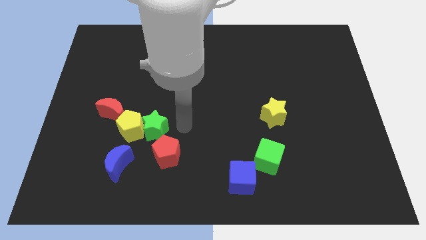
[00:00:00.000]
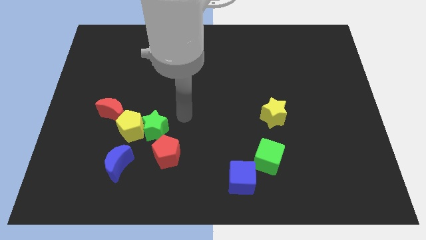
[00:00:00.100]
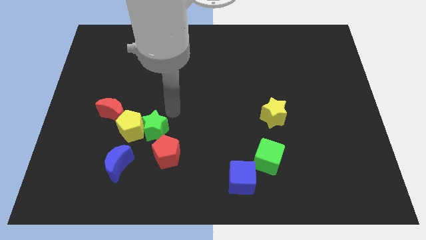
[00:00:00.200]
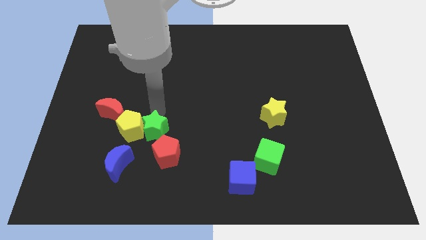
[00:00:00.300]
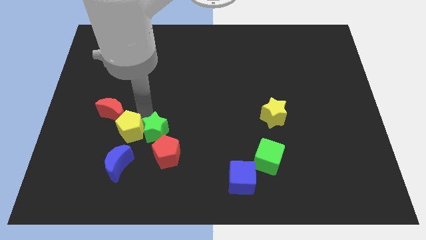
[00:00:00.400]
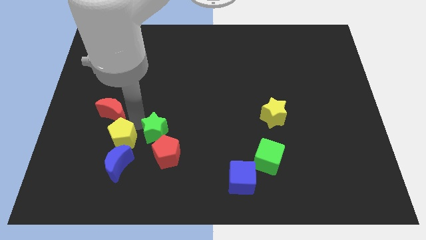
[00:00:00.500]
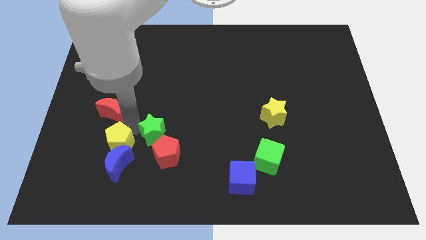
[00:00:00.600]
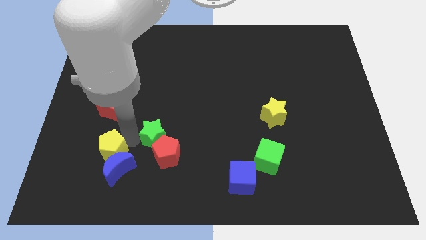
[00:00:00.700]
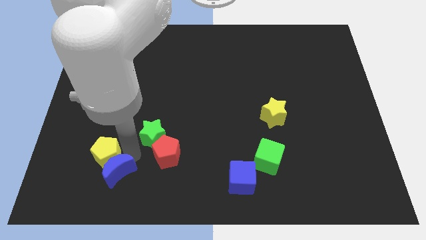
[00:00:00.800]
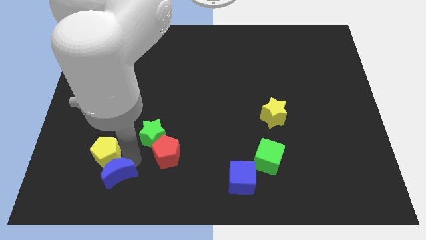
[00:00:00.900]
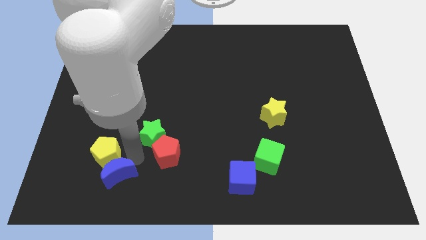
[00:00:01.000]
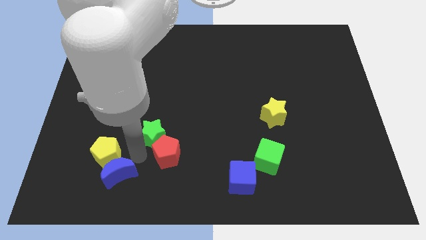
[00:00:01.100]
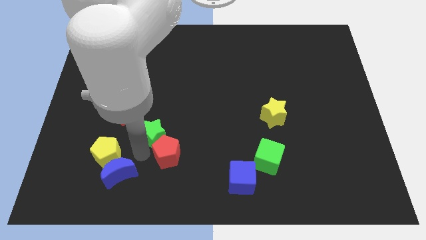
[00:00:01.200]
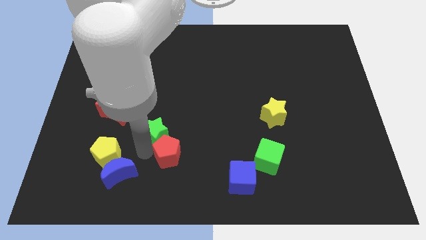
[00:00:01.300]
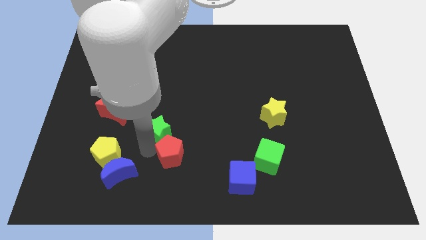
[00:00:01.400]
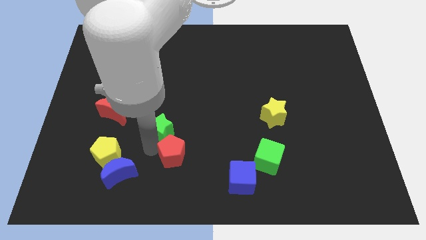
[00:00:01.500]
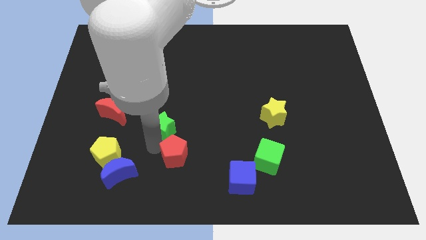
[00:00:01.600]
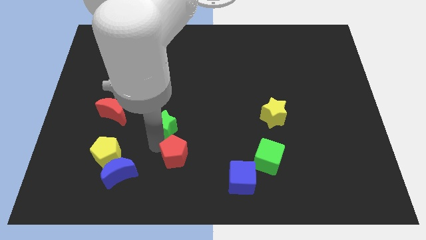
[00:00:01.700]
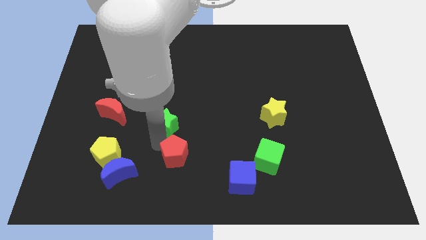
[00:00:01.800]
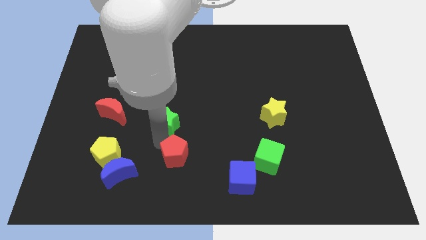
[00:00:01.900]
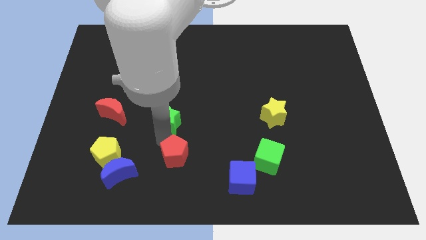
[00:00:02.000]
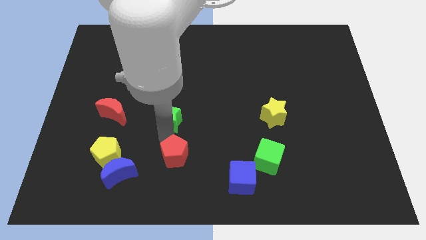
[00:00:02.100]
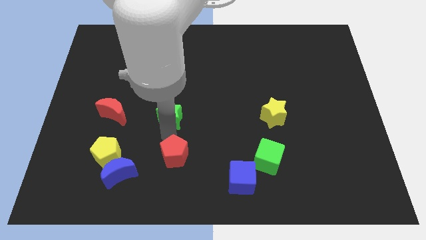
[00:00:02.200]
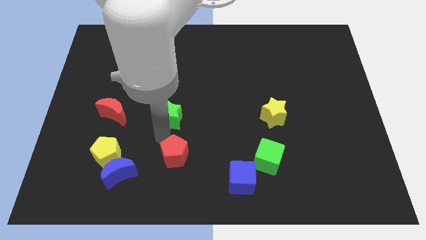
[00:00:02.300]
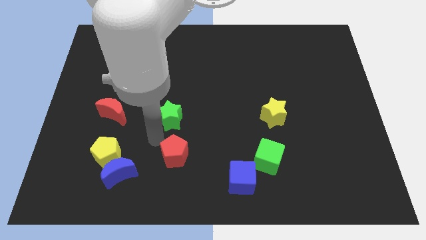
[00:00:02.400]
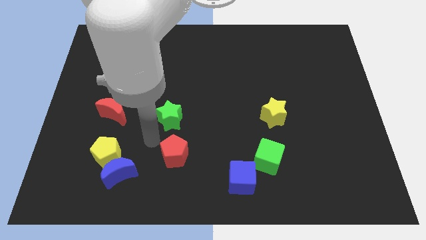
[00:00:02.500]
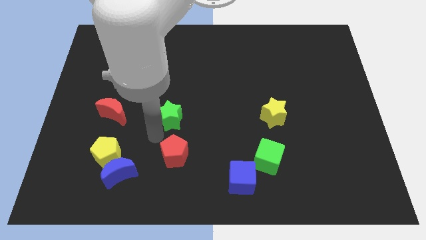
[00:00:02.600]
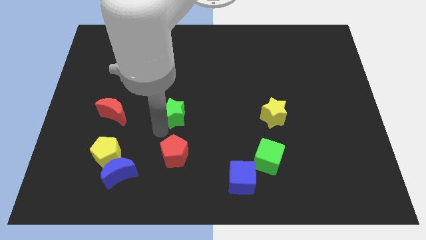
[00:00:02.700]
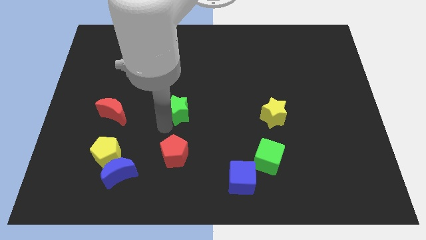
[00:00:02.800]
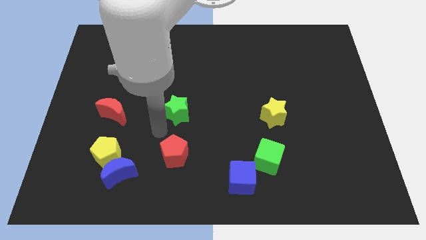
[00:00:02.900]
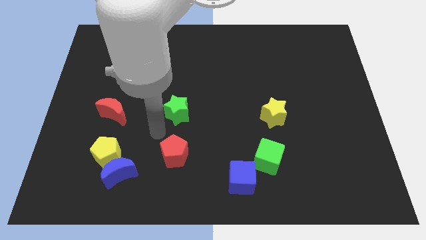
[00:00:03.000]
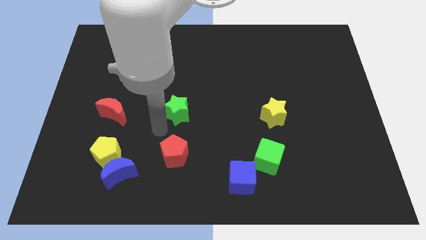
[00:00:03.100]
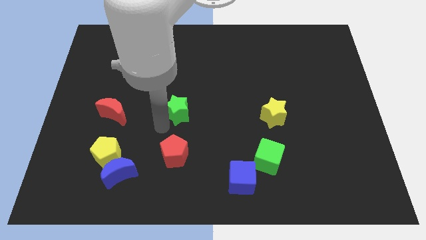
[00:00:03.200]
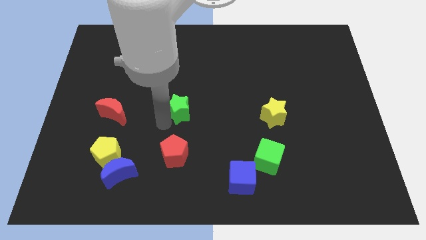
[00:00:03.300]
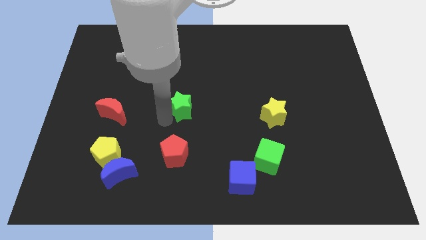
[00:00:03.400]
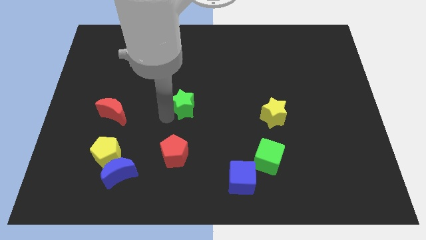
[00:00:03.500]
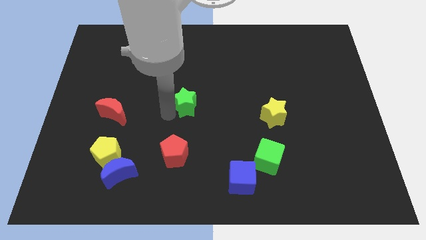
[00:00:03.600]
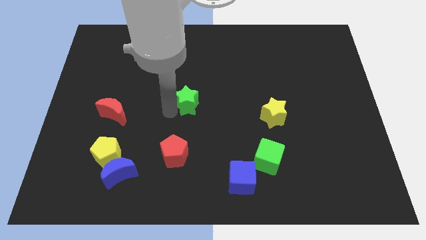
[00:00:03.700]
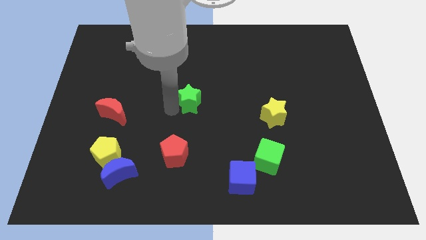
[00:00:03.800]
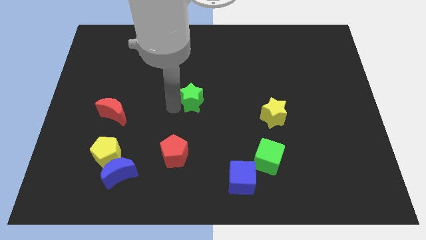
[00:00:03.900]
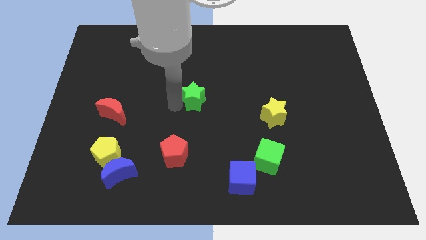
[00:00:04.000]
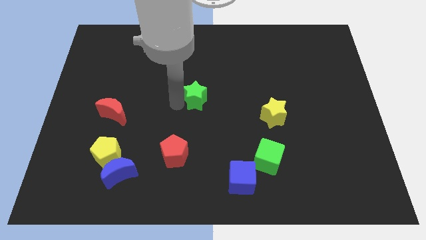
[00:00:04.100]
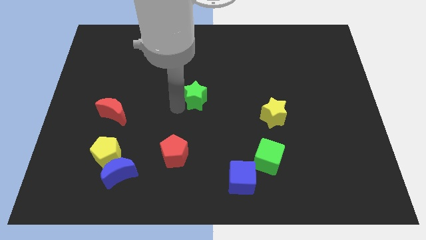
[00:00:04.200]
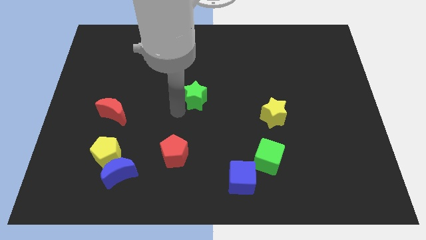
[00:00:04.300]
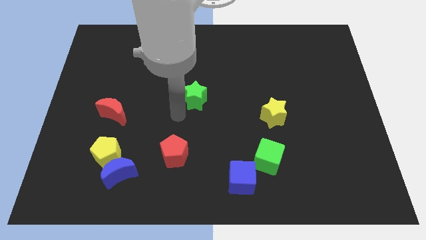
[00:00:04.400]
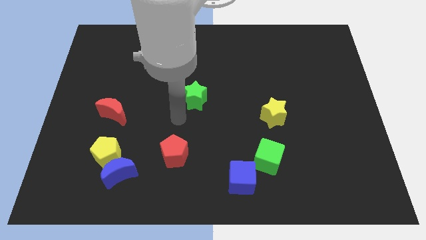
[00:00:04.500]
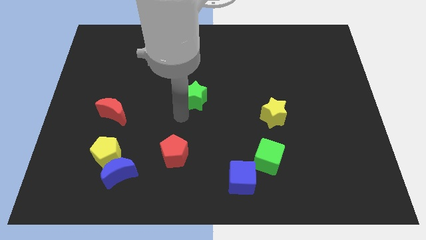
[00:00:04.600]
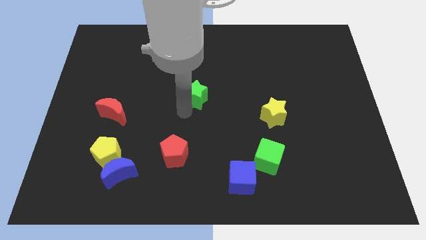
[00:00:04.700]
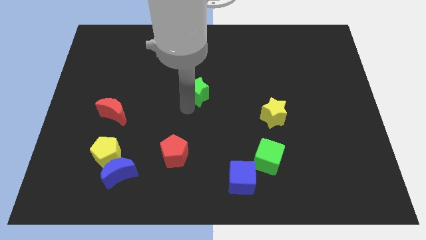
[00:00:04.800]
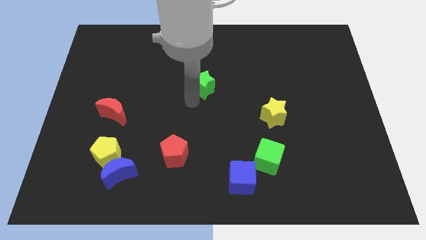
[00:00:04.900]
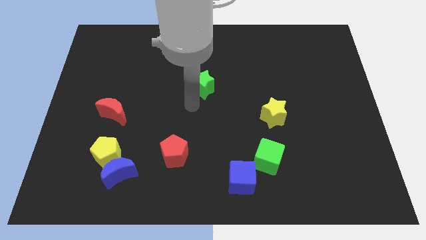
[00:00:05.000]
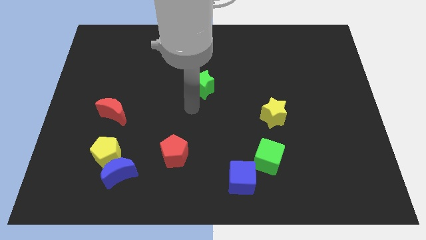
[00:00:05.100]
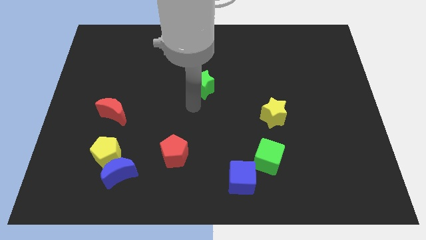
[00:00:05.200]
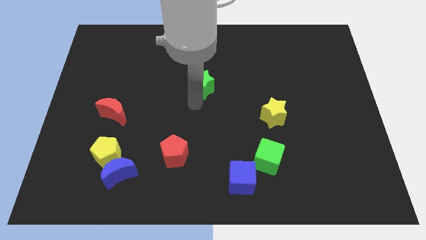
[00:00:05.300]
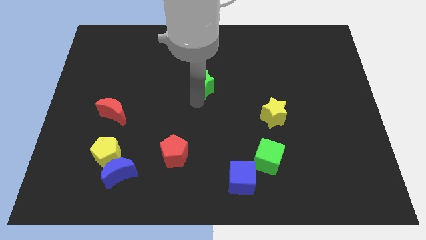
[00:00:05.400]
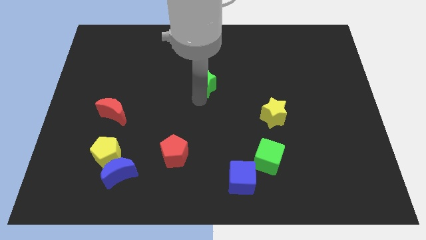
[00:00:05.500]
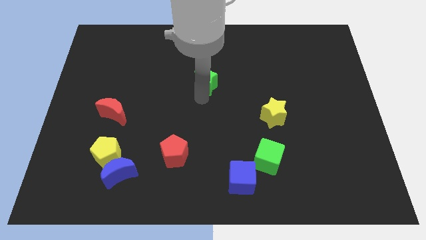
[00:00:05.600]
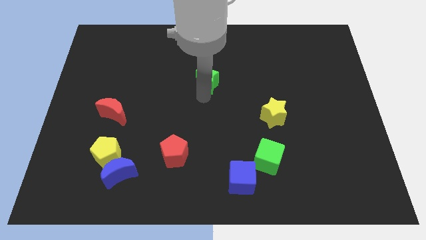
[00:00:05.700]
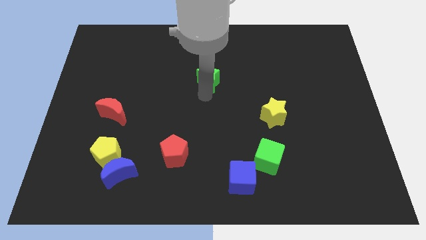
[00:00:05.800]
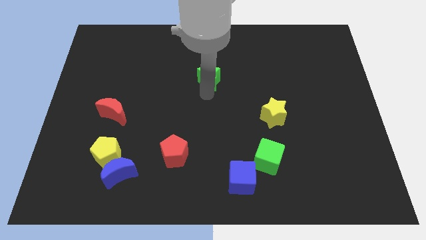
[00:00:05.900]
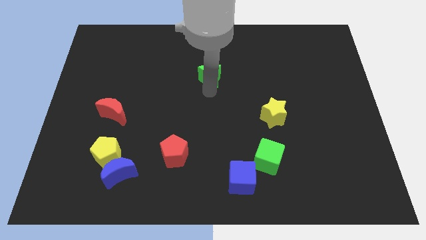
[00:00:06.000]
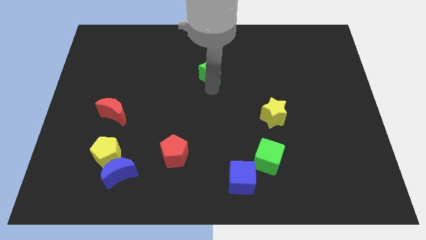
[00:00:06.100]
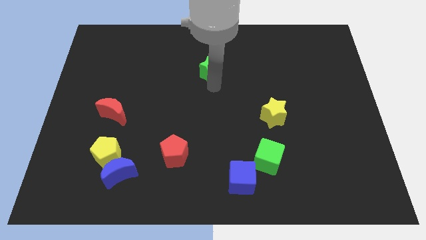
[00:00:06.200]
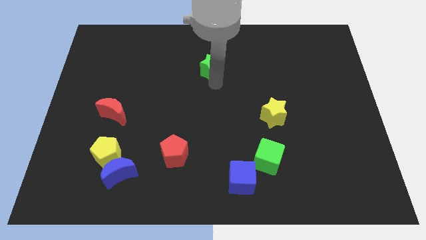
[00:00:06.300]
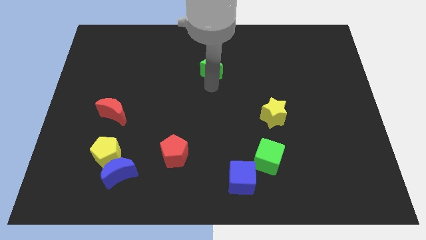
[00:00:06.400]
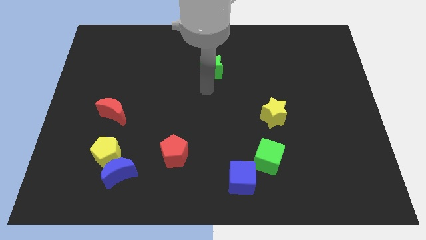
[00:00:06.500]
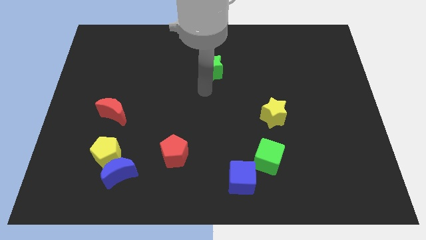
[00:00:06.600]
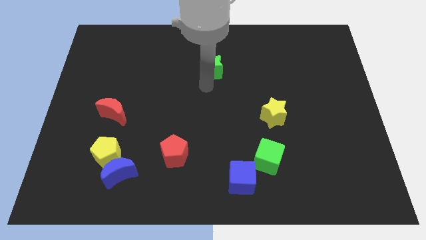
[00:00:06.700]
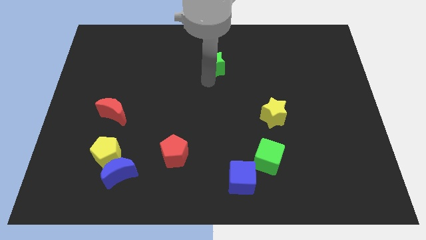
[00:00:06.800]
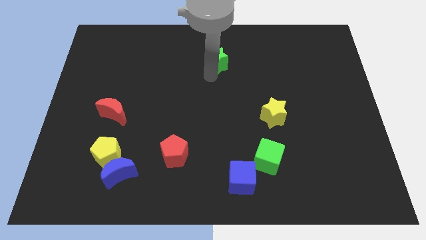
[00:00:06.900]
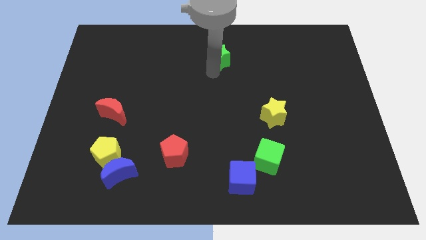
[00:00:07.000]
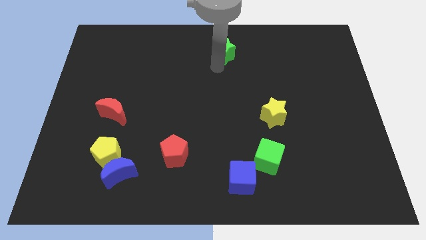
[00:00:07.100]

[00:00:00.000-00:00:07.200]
put the green star to the towards your base
